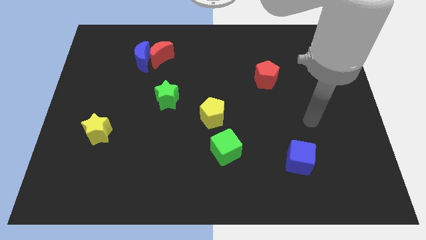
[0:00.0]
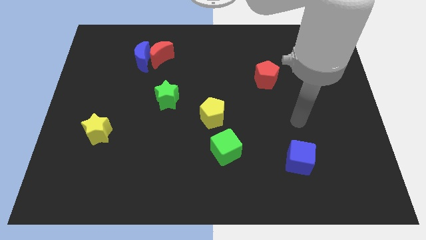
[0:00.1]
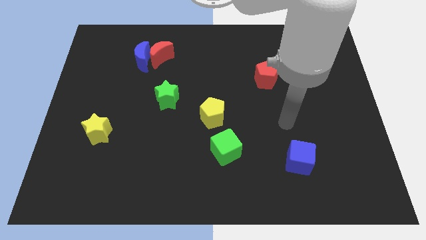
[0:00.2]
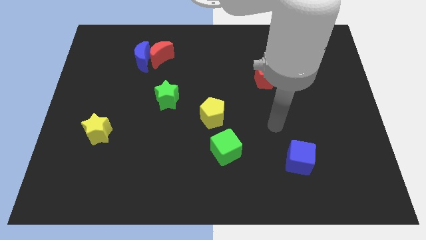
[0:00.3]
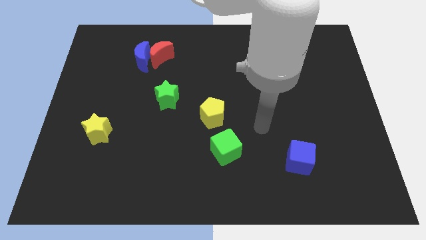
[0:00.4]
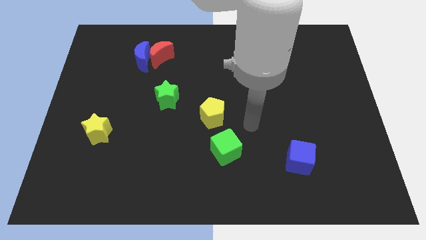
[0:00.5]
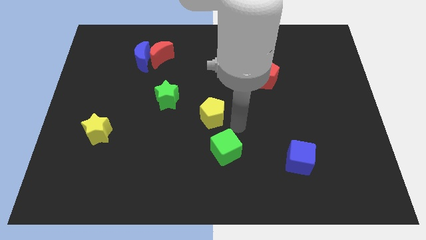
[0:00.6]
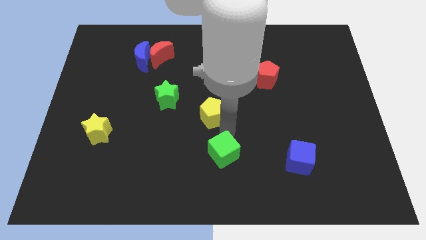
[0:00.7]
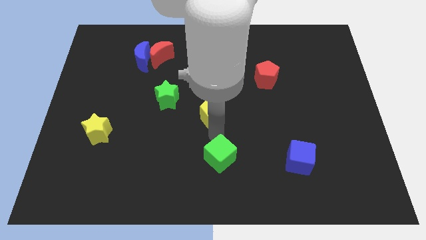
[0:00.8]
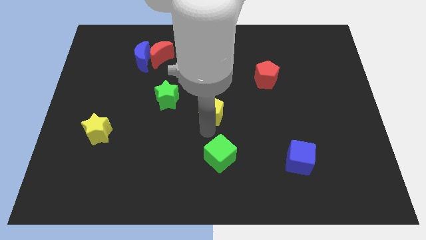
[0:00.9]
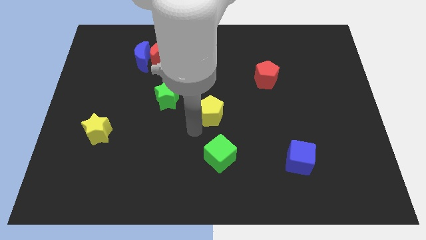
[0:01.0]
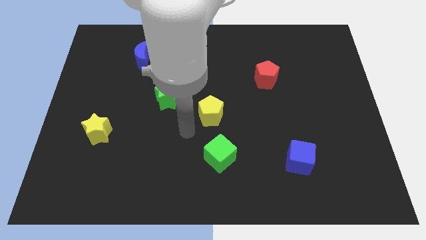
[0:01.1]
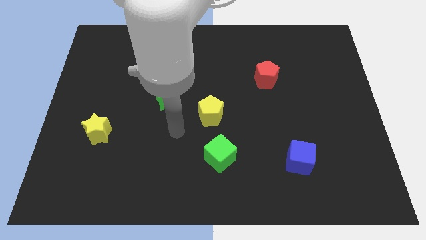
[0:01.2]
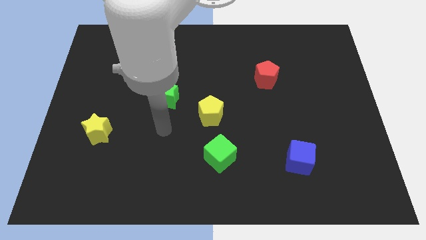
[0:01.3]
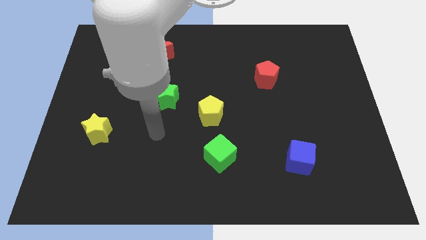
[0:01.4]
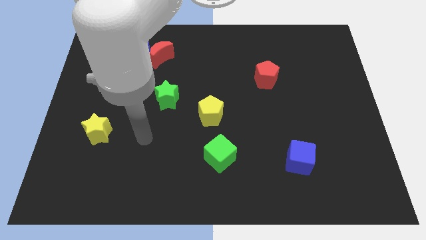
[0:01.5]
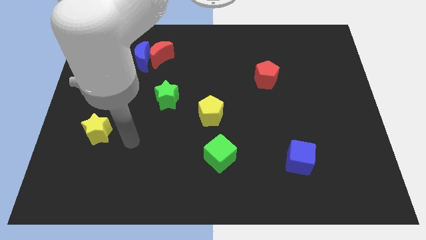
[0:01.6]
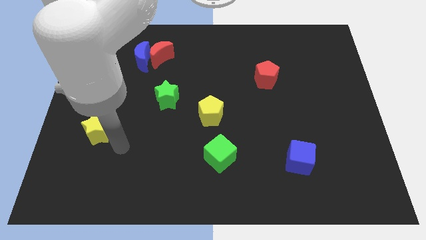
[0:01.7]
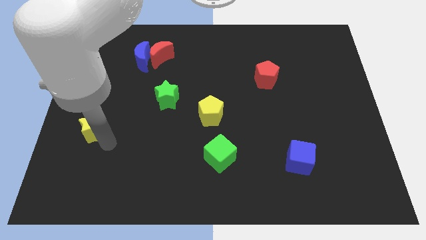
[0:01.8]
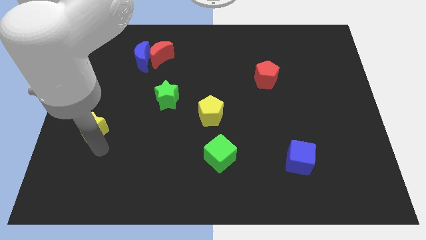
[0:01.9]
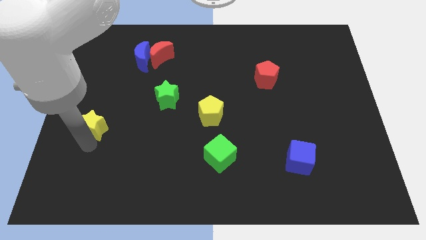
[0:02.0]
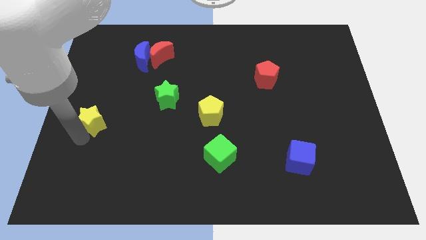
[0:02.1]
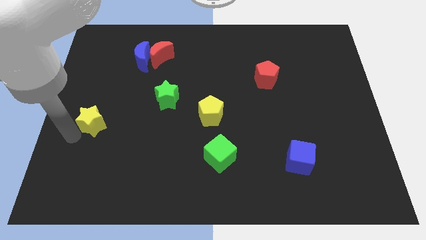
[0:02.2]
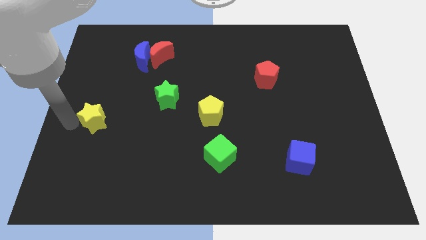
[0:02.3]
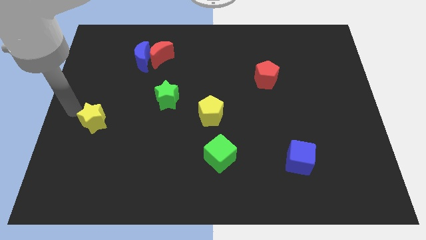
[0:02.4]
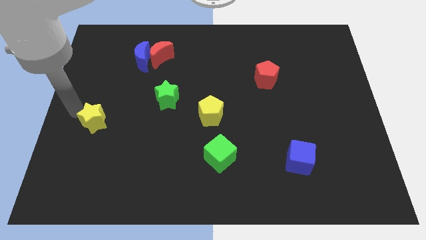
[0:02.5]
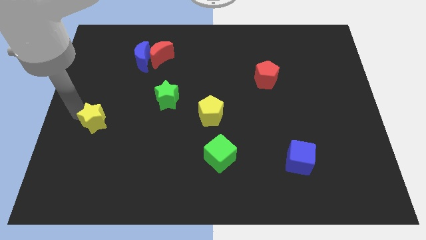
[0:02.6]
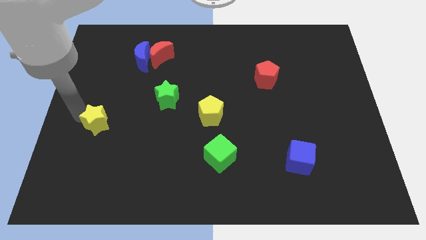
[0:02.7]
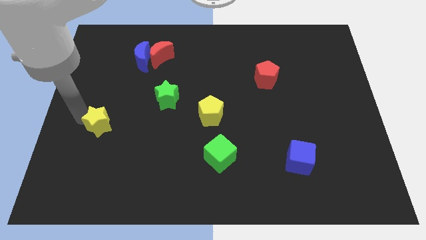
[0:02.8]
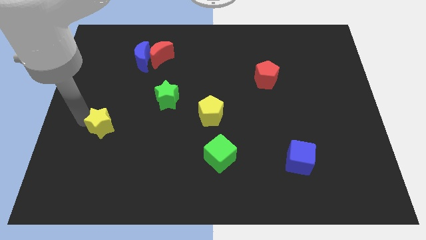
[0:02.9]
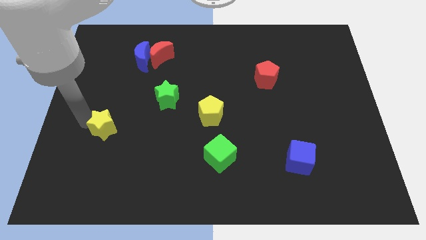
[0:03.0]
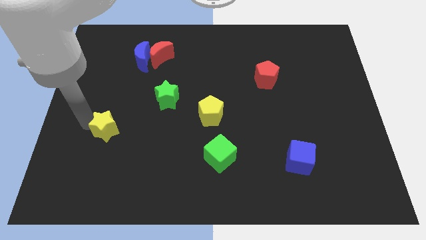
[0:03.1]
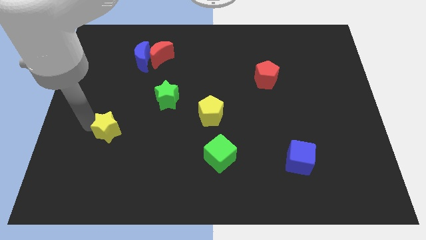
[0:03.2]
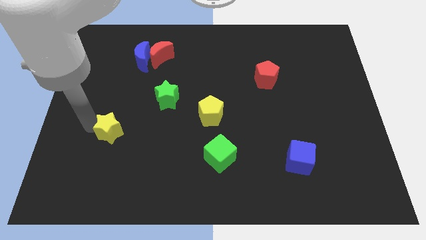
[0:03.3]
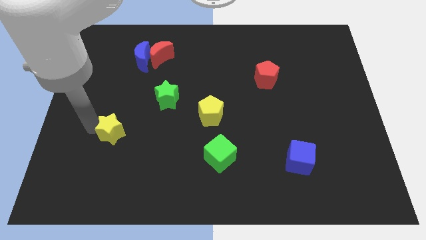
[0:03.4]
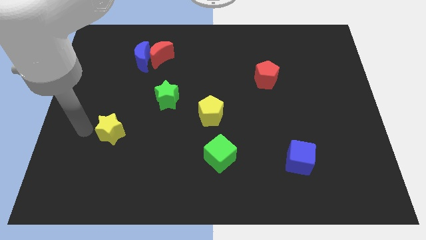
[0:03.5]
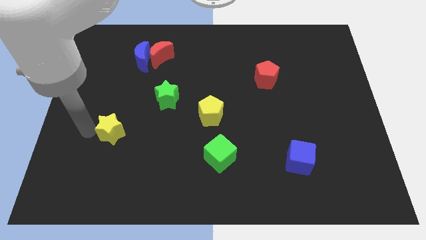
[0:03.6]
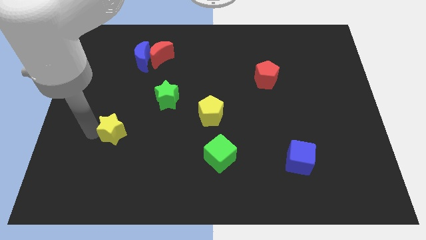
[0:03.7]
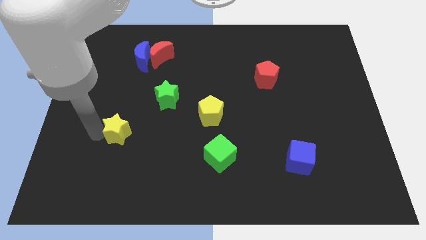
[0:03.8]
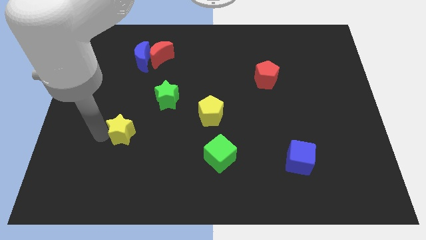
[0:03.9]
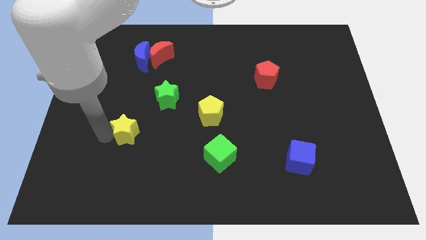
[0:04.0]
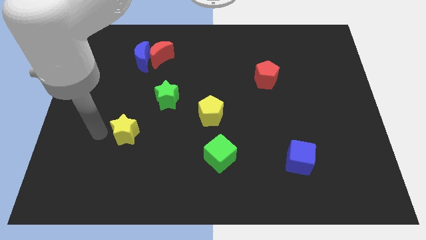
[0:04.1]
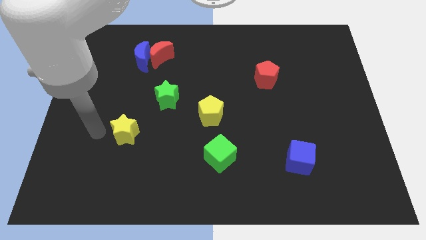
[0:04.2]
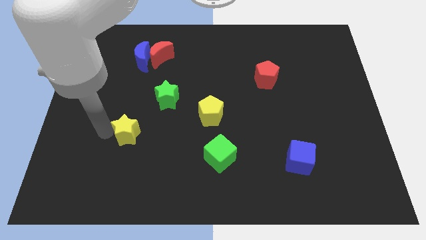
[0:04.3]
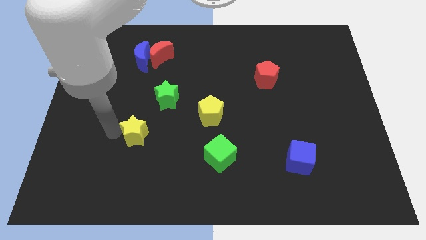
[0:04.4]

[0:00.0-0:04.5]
move the yellow star to the right slightly

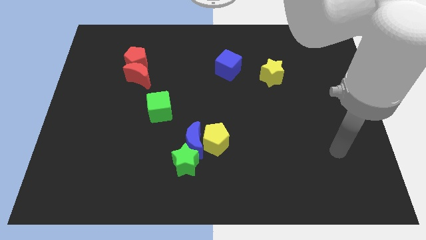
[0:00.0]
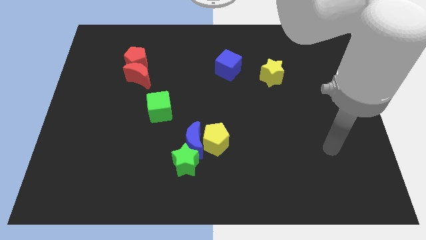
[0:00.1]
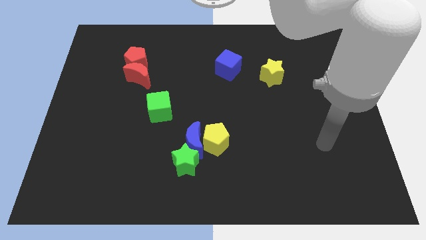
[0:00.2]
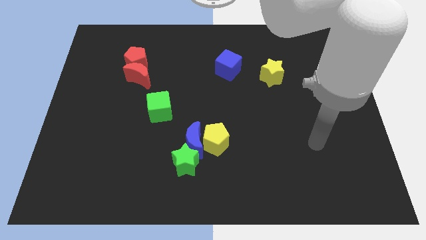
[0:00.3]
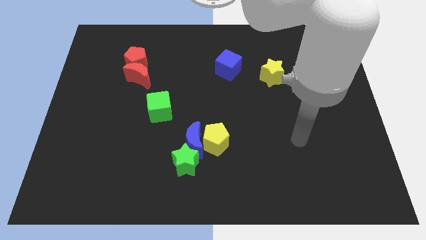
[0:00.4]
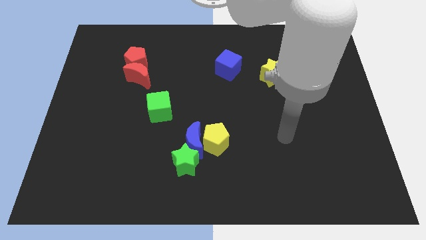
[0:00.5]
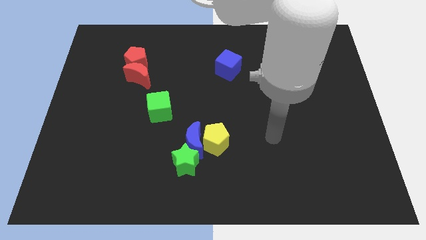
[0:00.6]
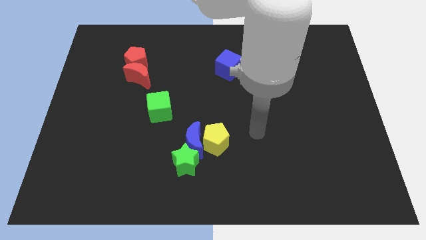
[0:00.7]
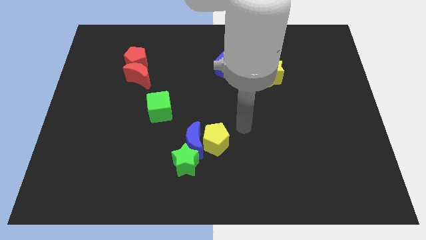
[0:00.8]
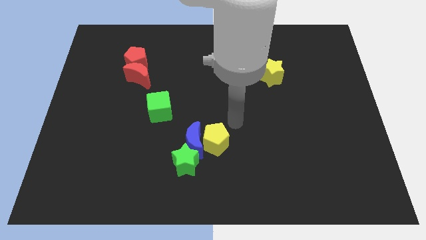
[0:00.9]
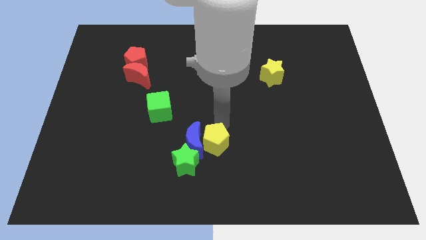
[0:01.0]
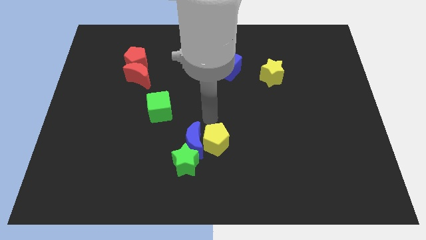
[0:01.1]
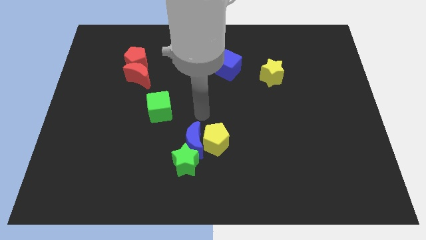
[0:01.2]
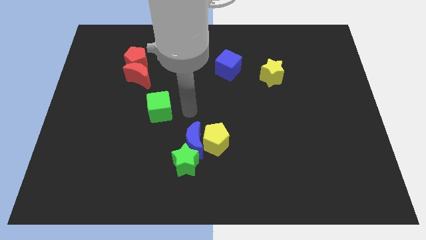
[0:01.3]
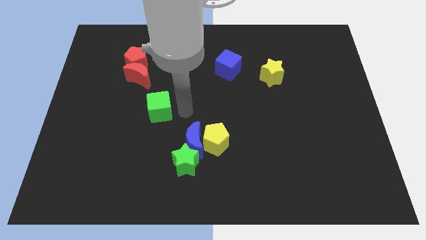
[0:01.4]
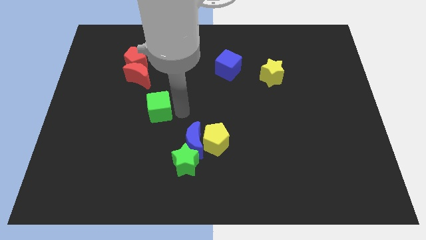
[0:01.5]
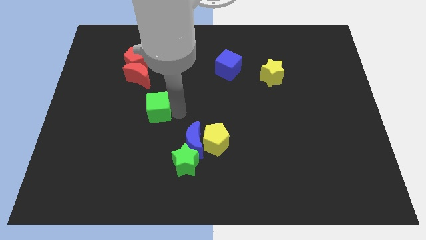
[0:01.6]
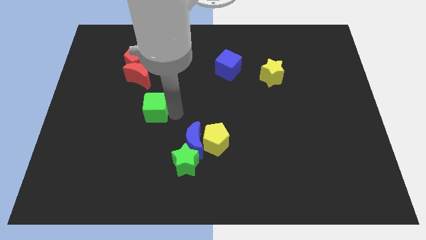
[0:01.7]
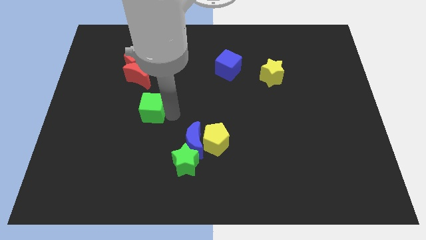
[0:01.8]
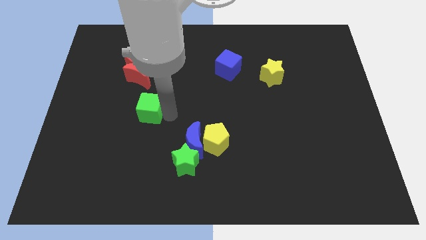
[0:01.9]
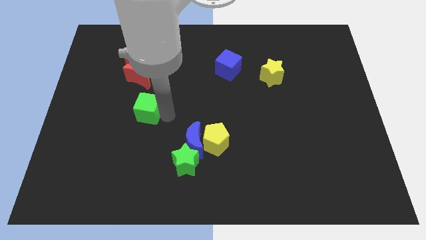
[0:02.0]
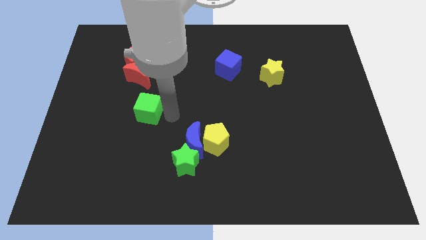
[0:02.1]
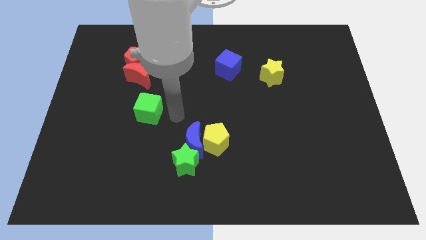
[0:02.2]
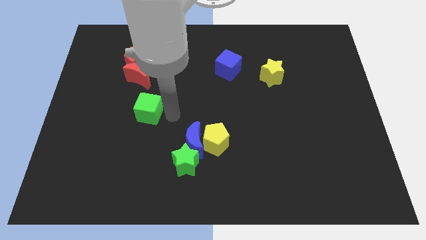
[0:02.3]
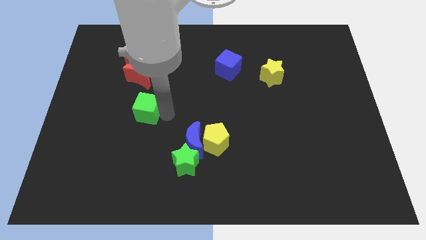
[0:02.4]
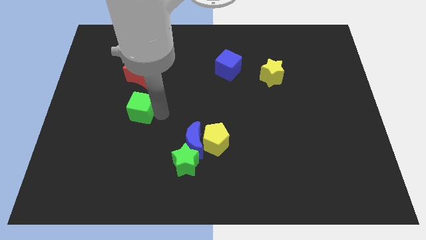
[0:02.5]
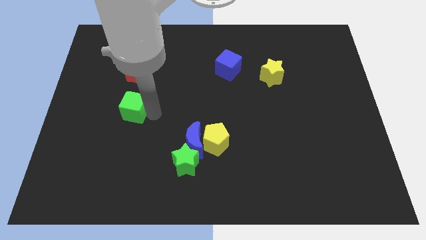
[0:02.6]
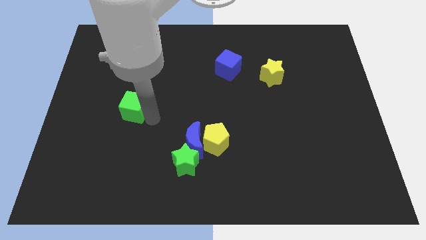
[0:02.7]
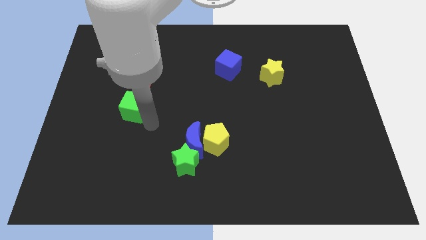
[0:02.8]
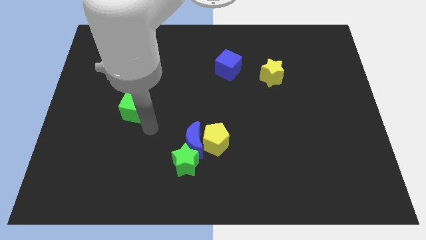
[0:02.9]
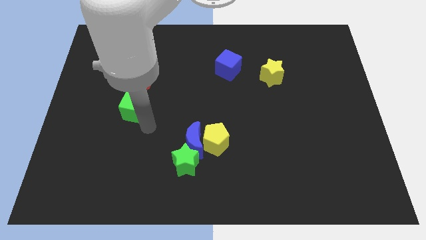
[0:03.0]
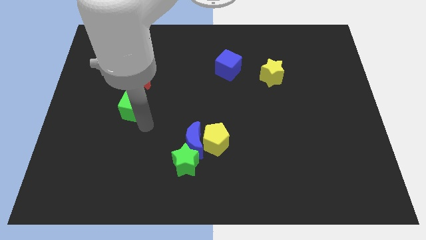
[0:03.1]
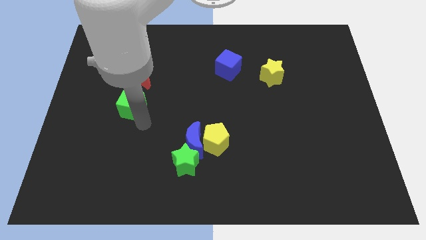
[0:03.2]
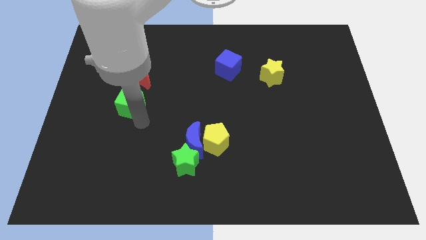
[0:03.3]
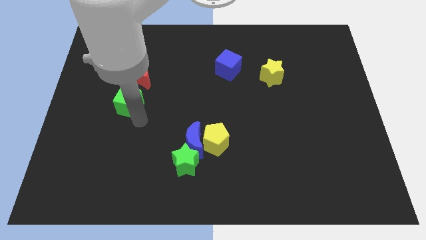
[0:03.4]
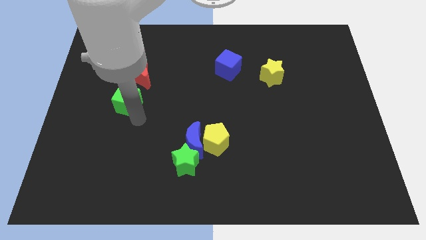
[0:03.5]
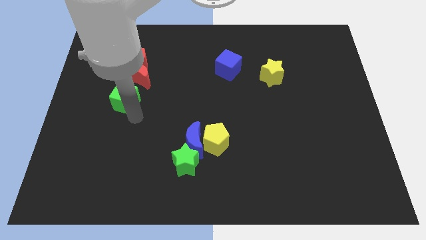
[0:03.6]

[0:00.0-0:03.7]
slide the green cube upwards and left diagonally a little bit
